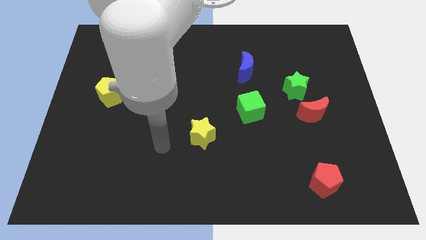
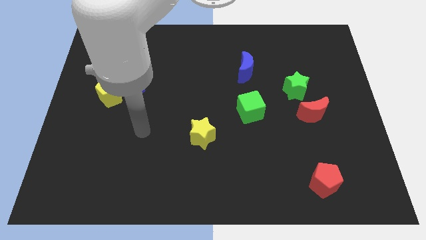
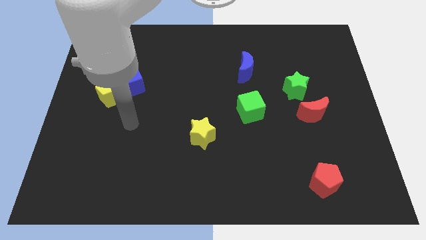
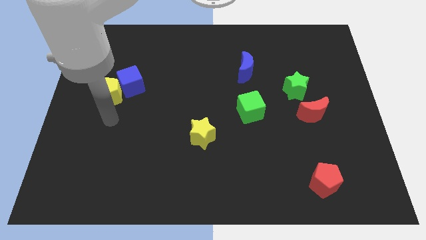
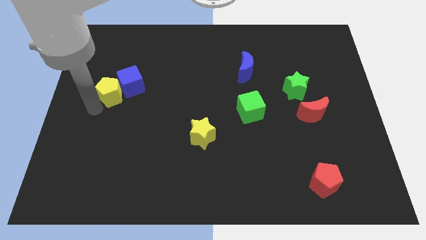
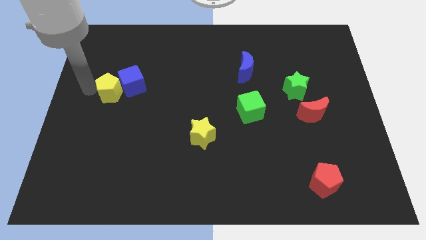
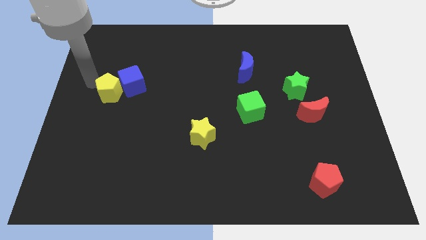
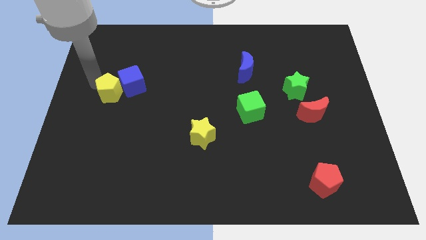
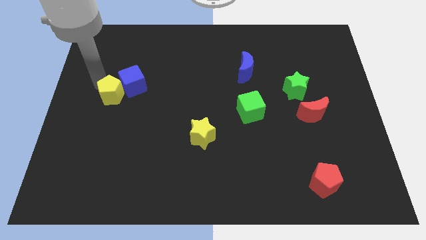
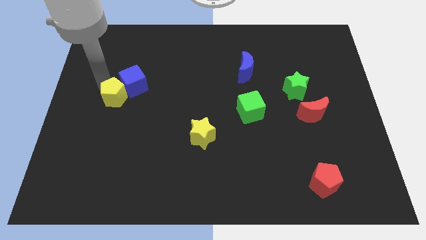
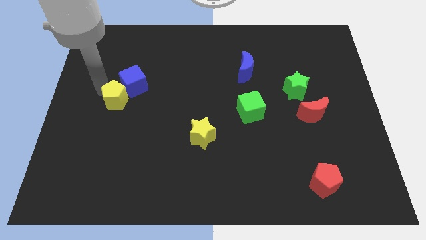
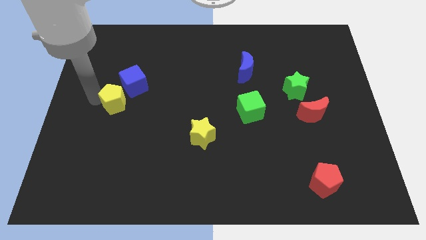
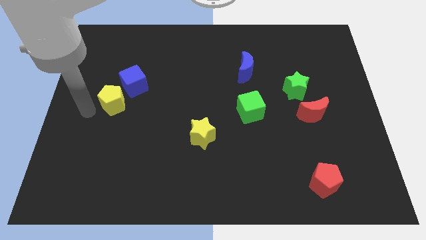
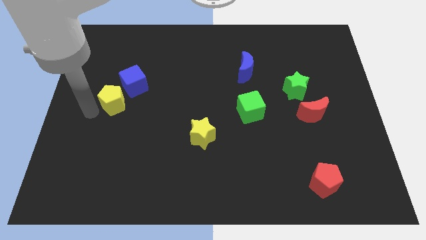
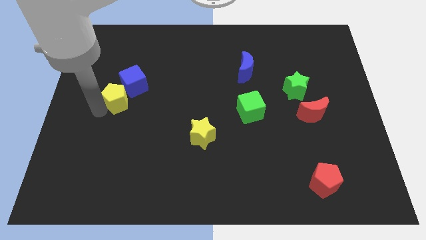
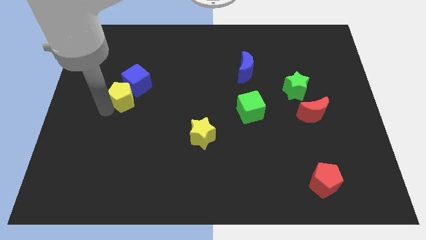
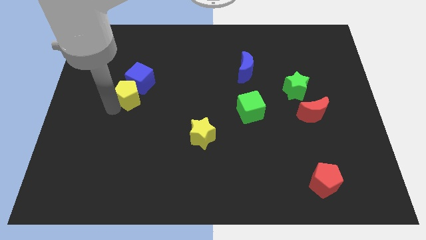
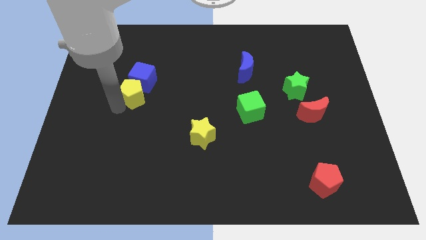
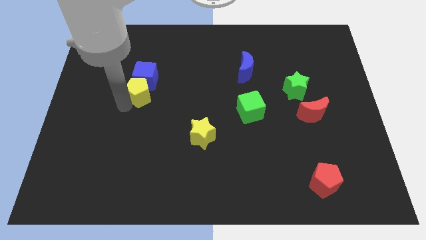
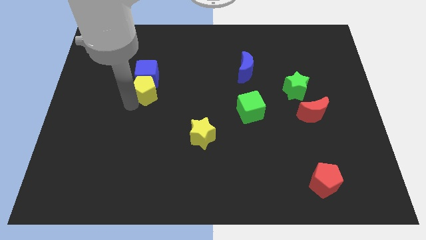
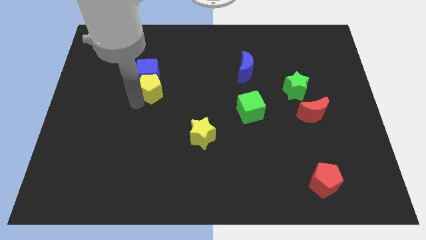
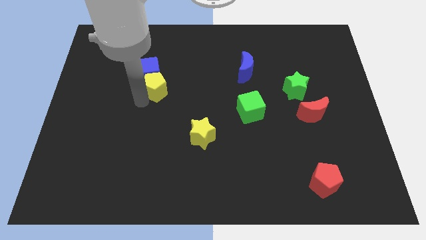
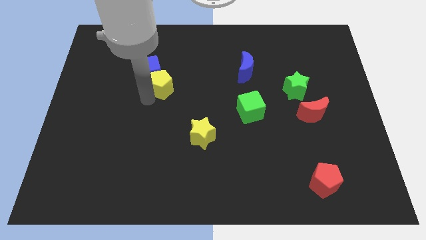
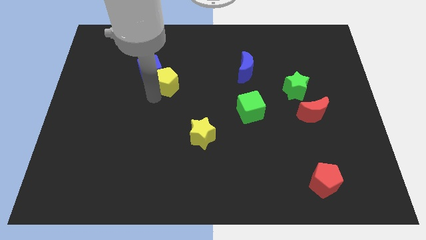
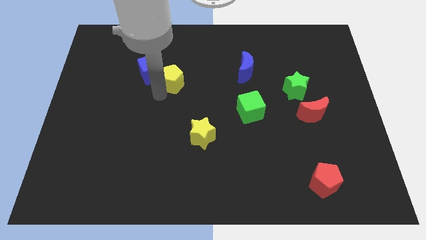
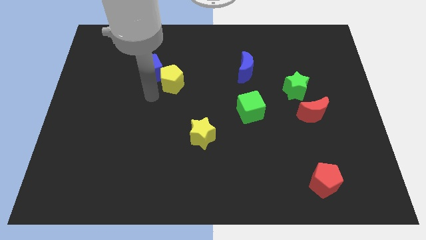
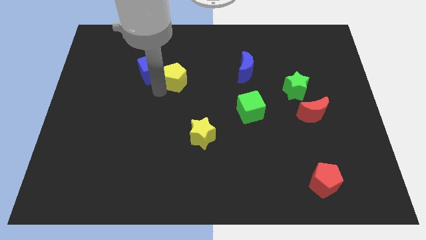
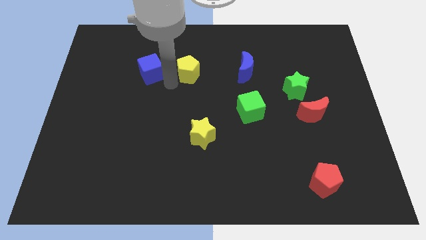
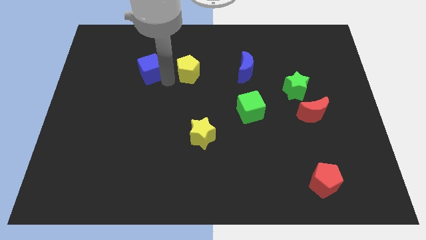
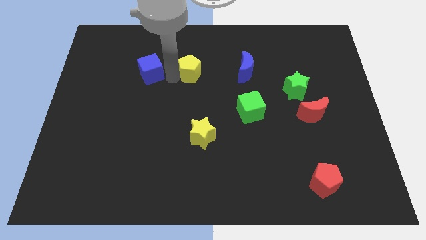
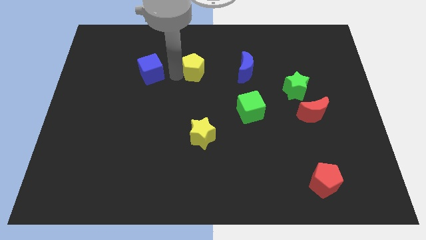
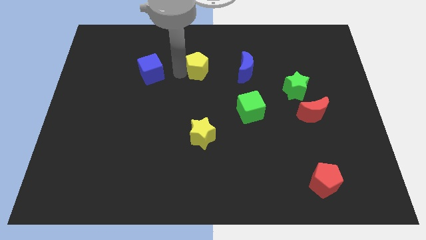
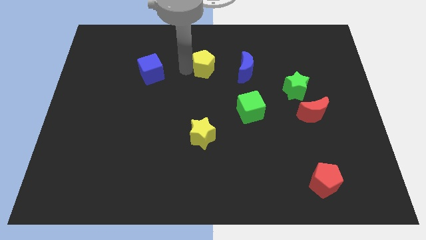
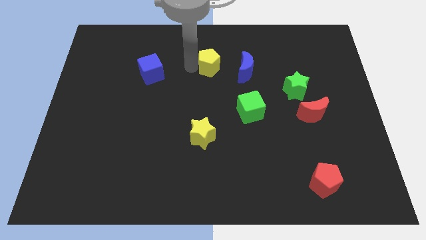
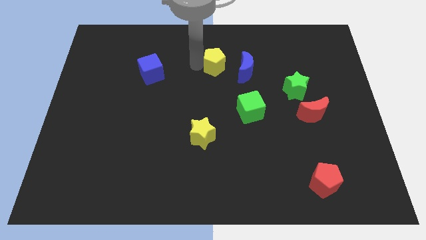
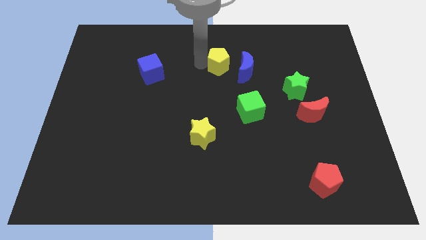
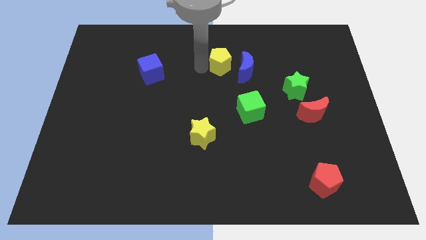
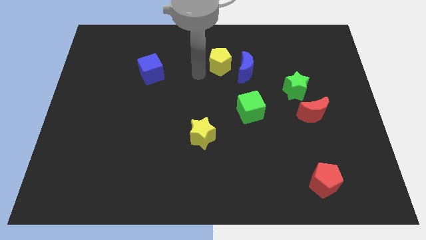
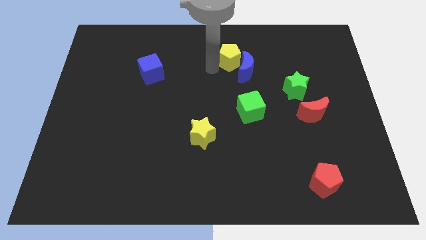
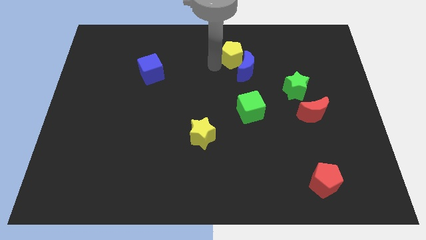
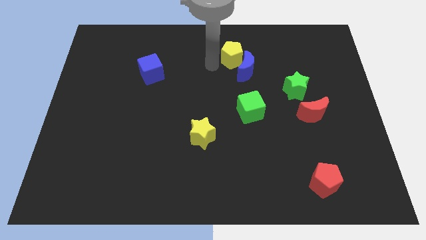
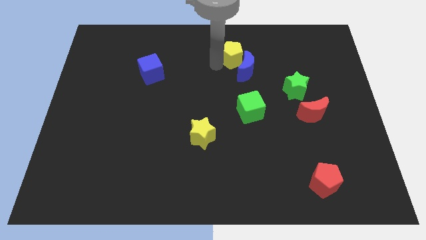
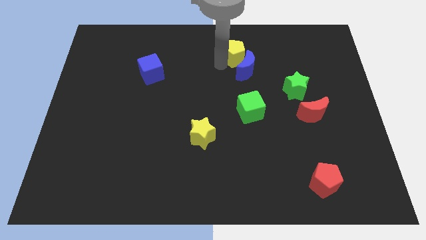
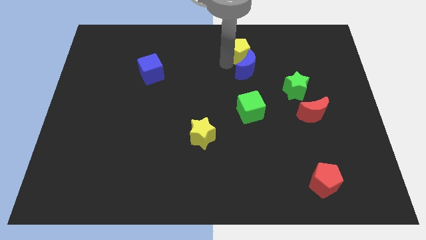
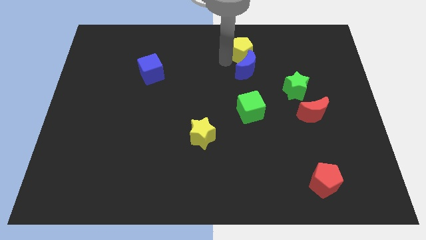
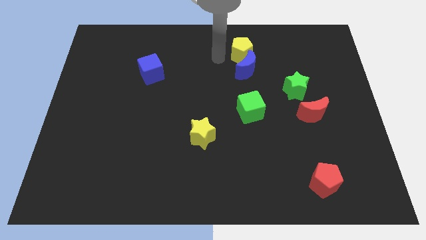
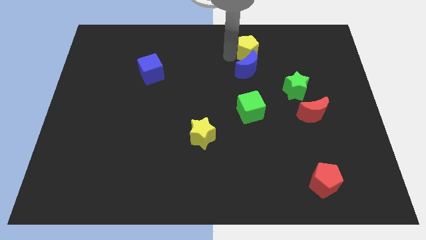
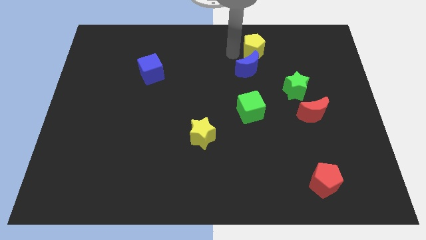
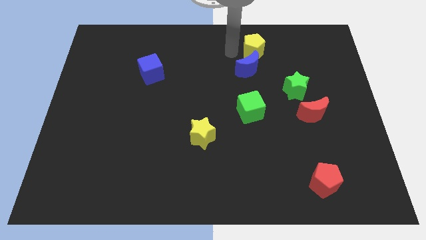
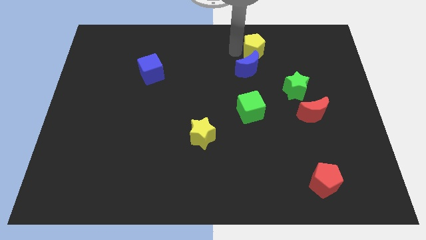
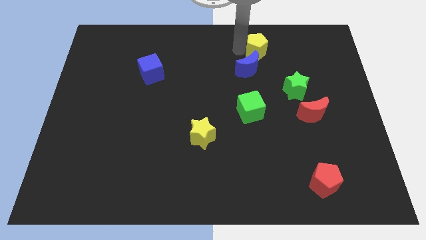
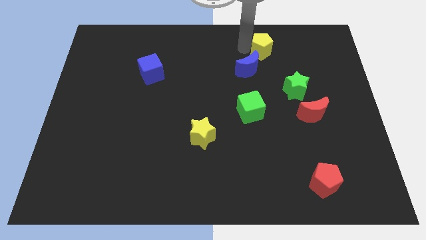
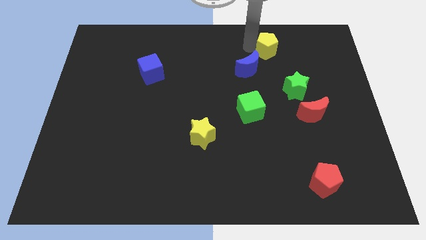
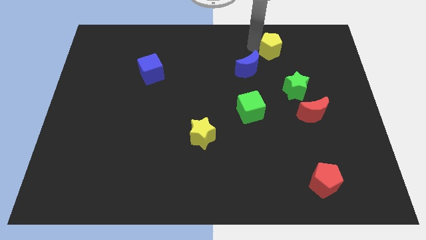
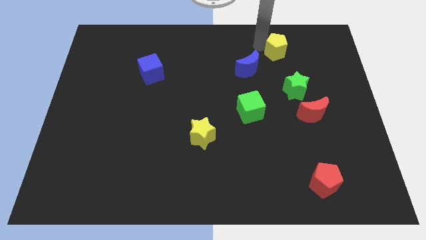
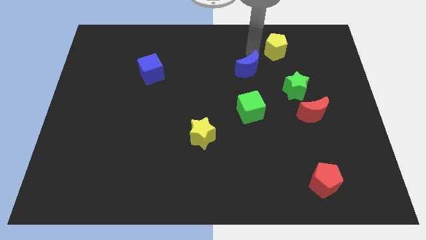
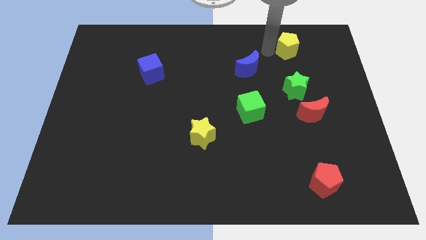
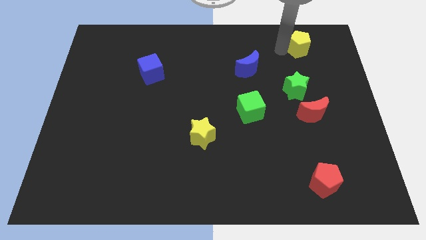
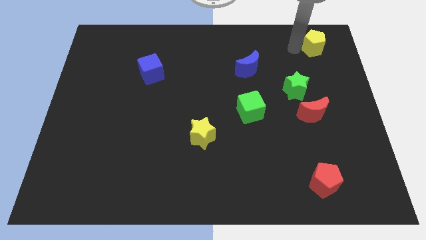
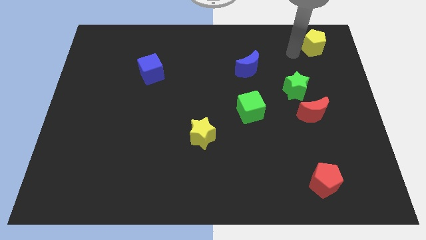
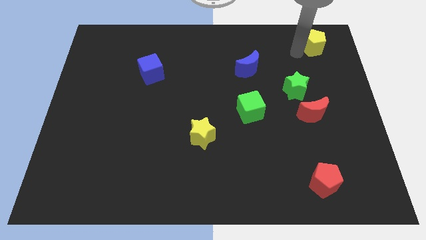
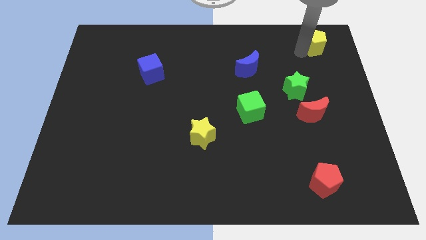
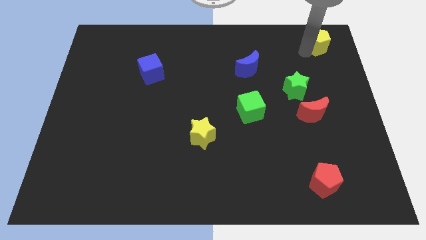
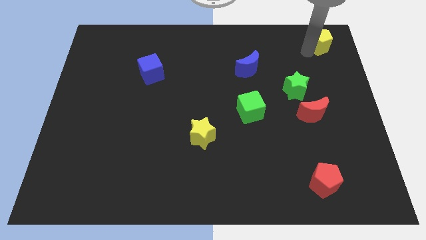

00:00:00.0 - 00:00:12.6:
push the yellow pentagon to the top right corner

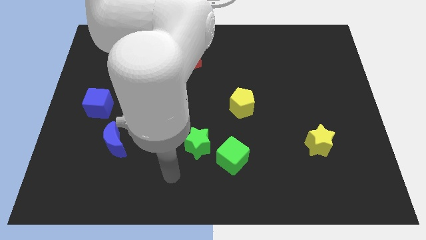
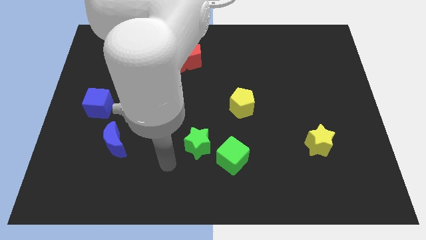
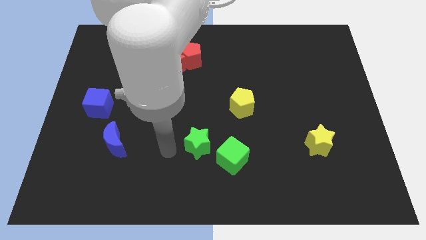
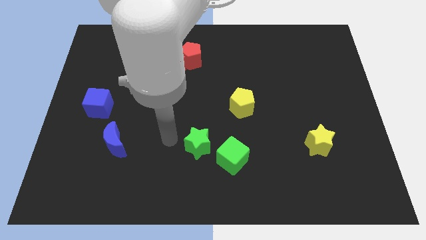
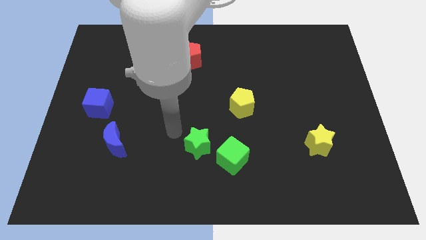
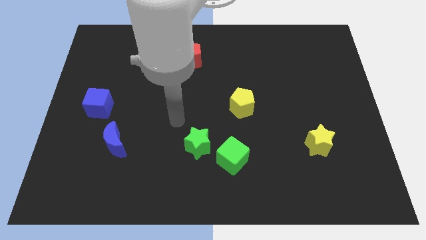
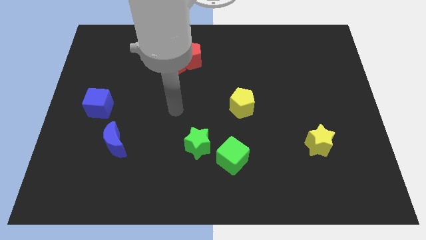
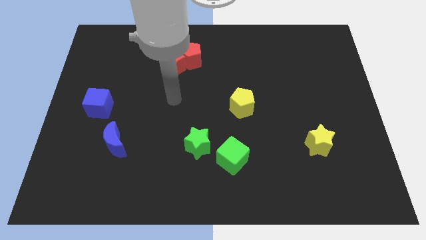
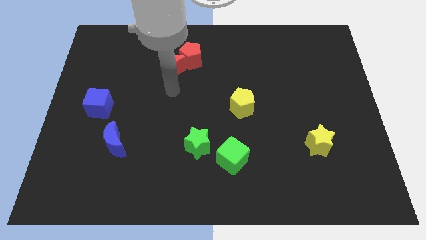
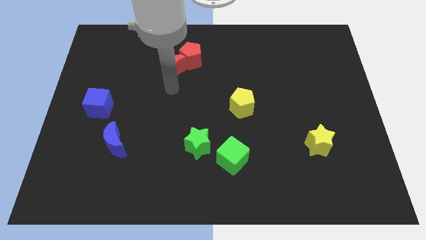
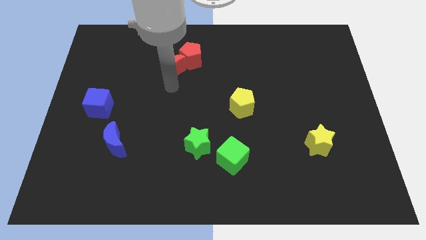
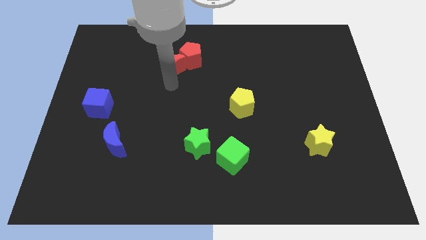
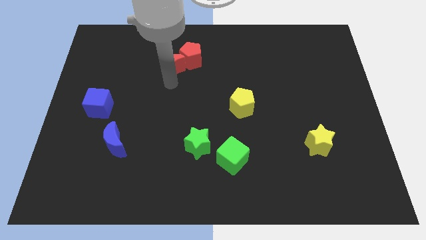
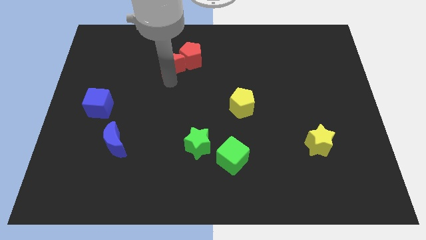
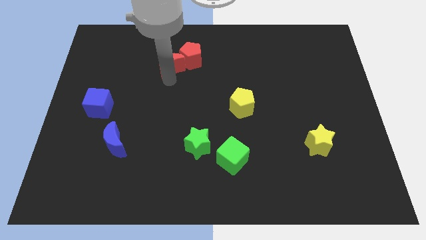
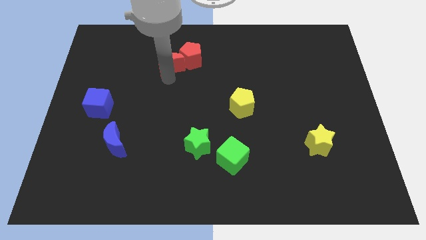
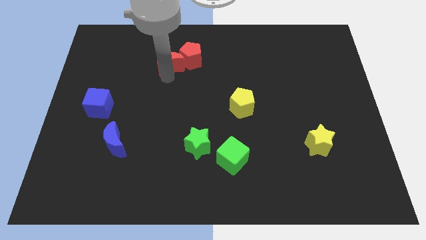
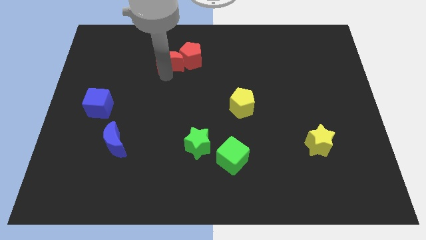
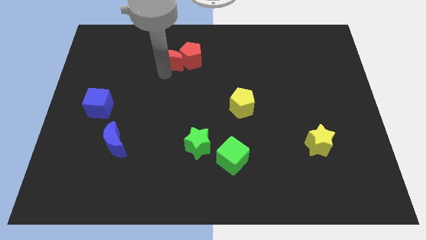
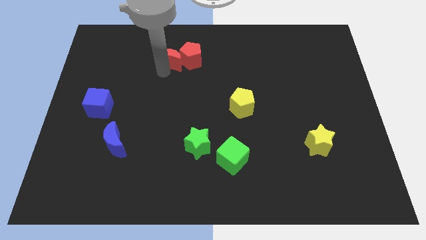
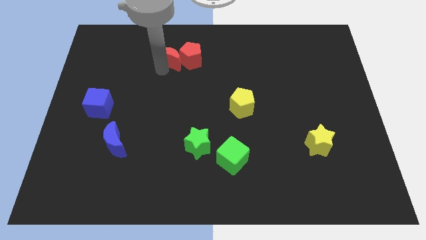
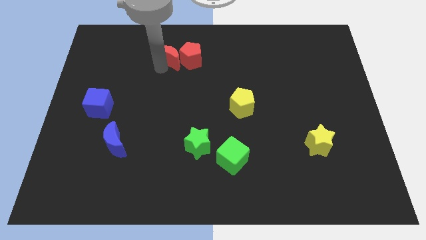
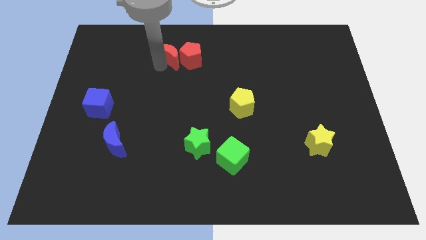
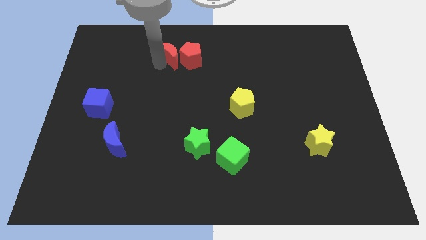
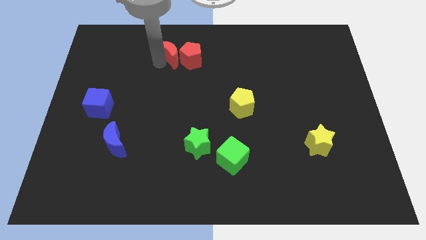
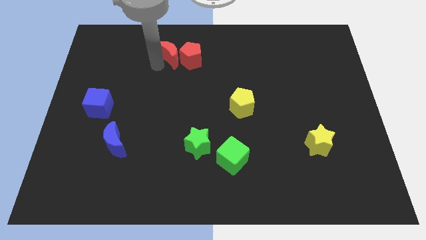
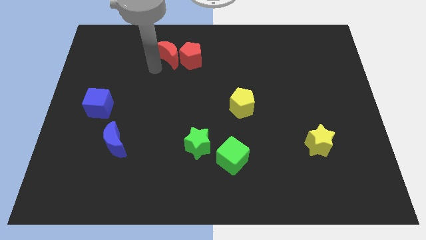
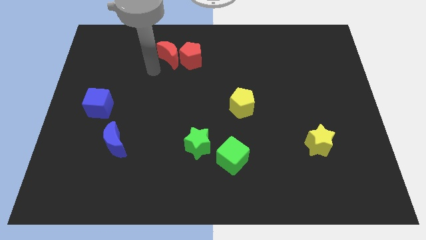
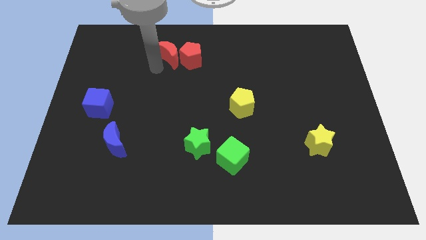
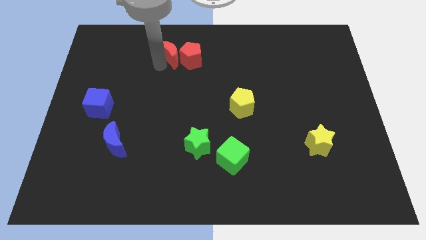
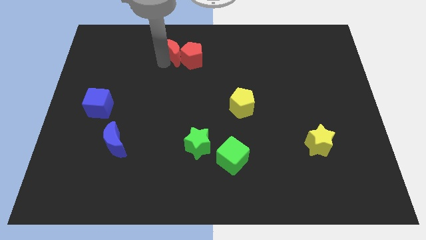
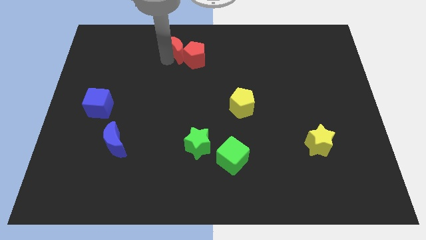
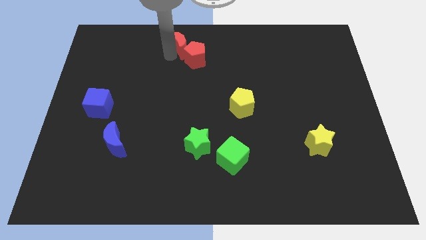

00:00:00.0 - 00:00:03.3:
put the red moon to the top
